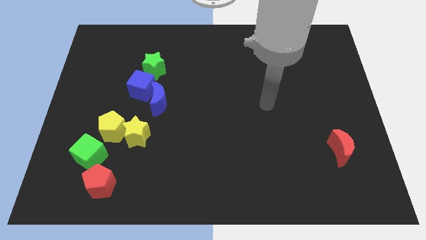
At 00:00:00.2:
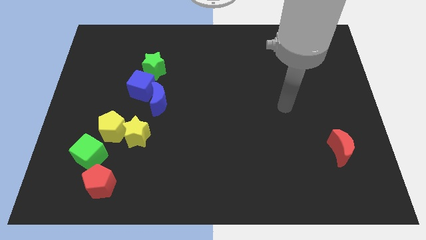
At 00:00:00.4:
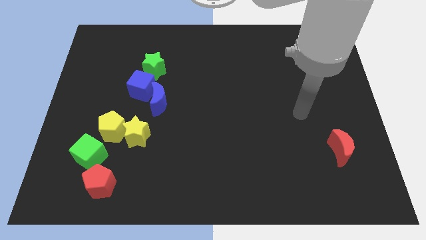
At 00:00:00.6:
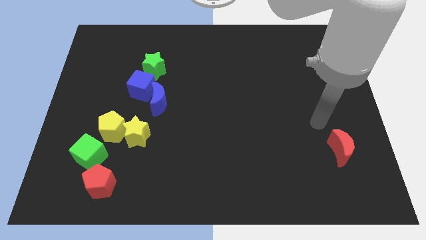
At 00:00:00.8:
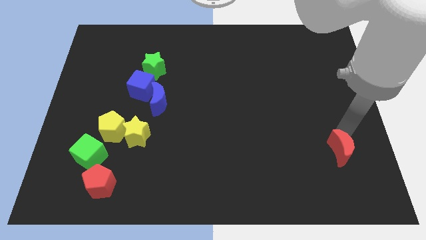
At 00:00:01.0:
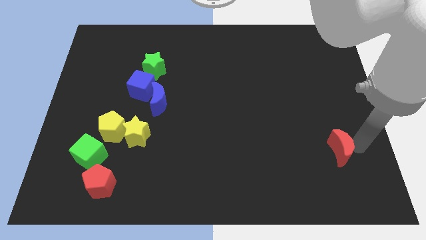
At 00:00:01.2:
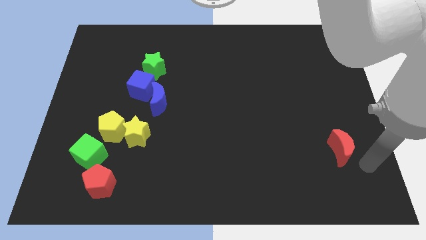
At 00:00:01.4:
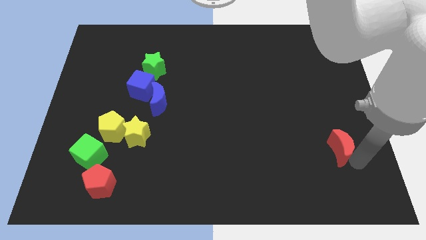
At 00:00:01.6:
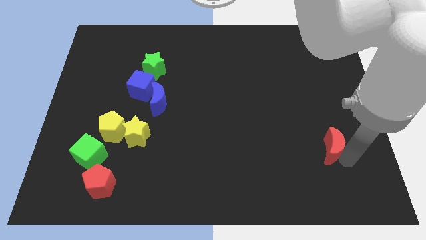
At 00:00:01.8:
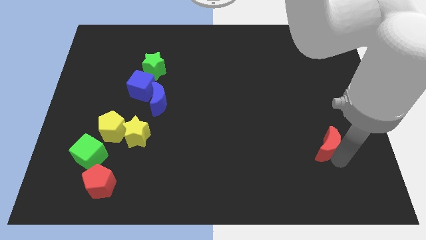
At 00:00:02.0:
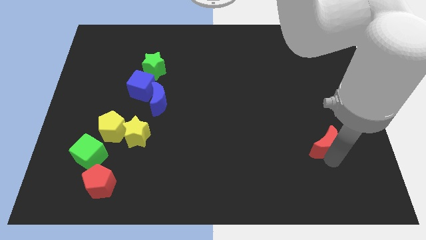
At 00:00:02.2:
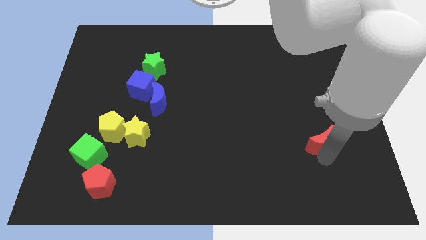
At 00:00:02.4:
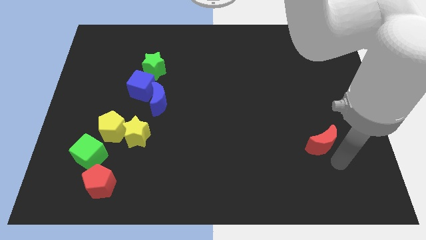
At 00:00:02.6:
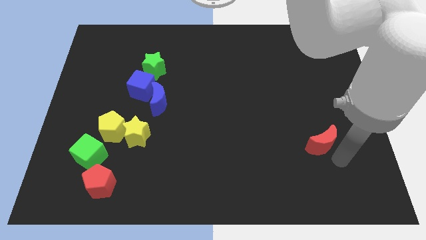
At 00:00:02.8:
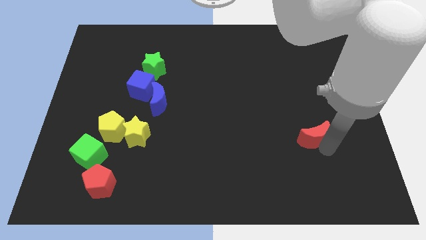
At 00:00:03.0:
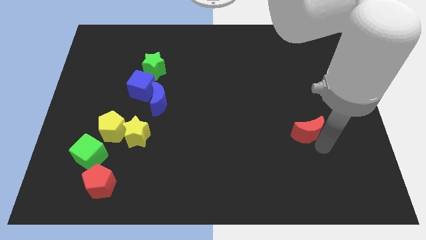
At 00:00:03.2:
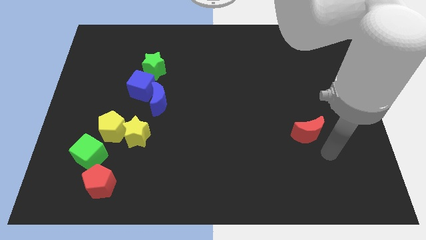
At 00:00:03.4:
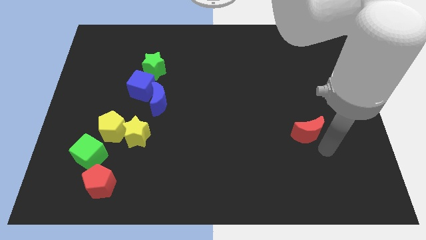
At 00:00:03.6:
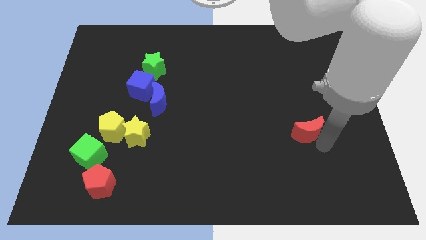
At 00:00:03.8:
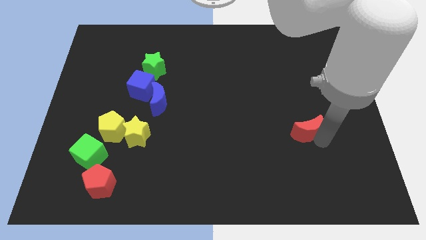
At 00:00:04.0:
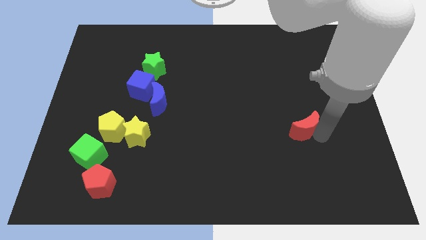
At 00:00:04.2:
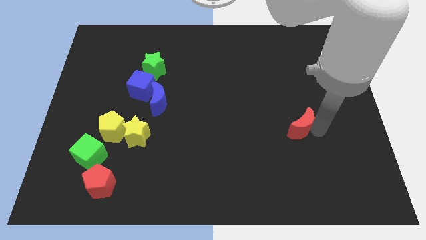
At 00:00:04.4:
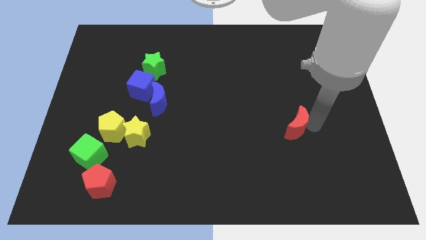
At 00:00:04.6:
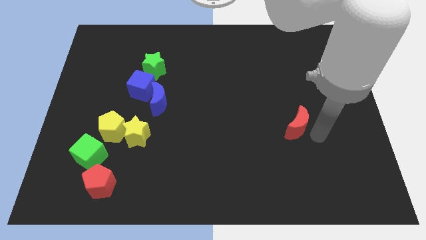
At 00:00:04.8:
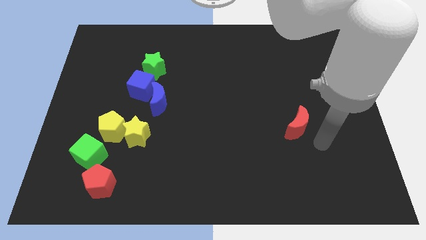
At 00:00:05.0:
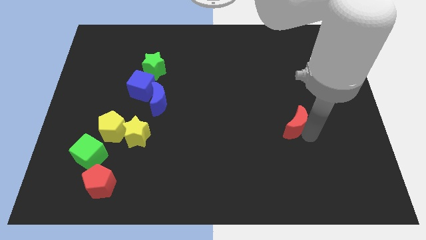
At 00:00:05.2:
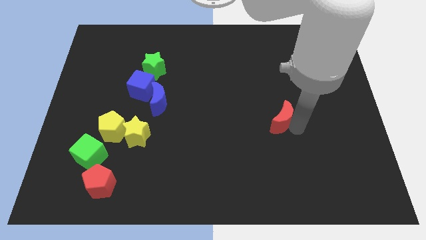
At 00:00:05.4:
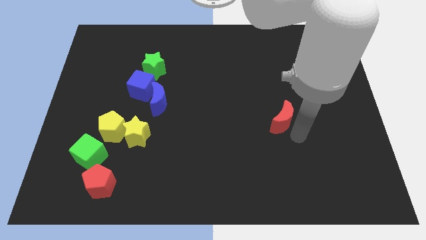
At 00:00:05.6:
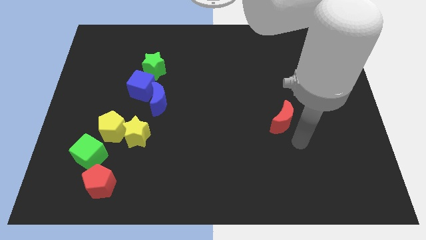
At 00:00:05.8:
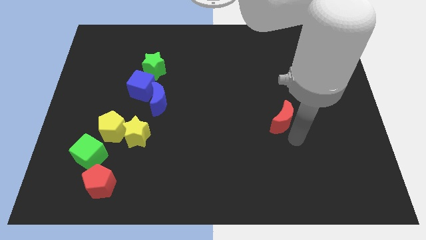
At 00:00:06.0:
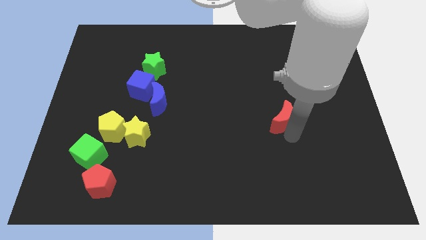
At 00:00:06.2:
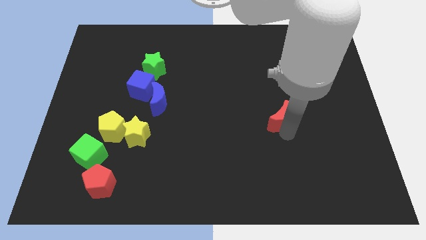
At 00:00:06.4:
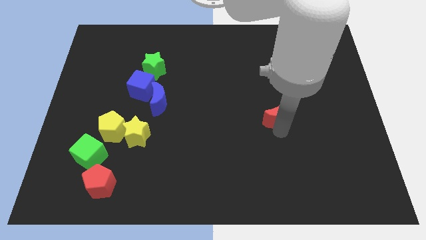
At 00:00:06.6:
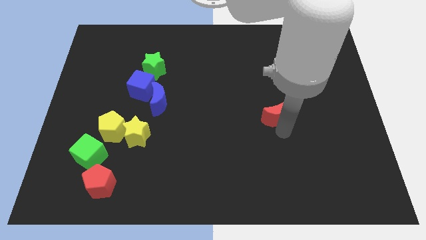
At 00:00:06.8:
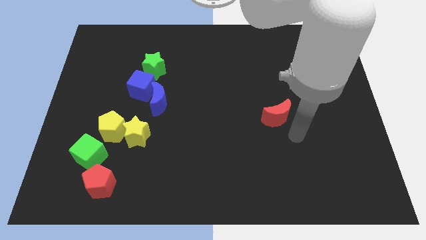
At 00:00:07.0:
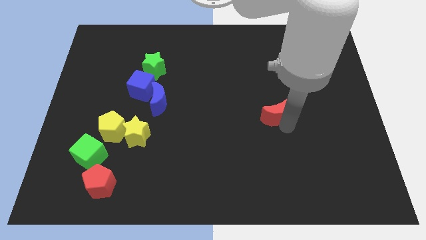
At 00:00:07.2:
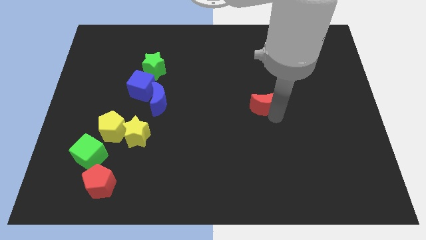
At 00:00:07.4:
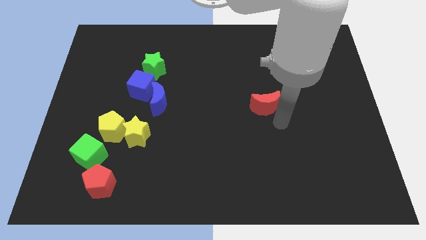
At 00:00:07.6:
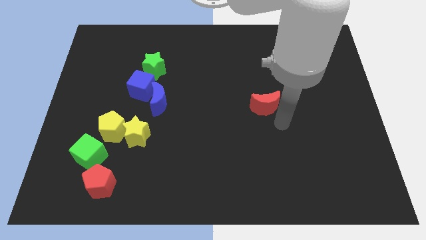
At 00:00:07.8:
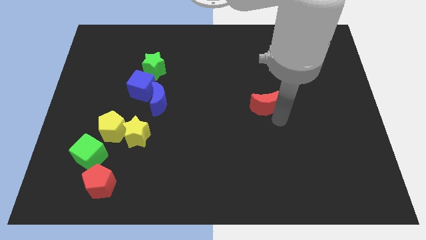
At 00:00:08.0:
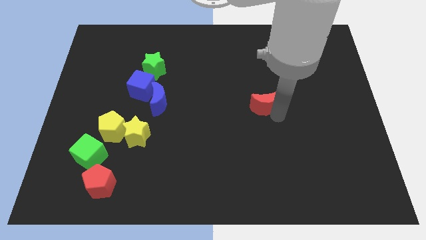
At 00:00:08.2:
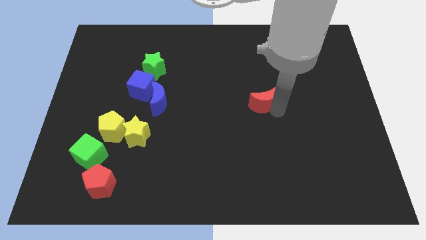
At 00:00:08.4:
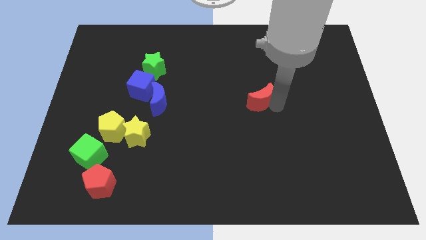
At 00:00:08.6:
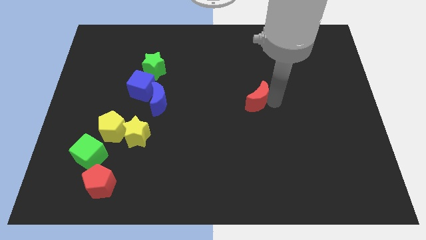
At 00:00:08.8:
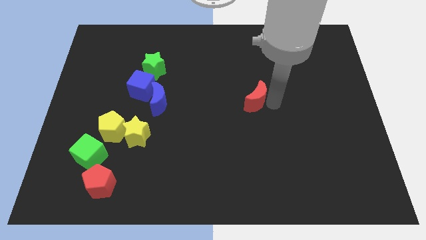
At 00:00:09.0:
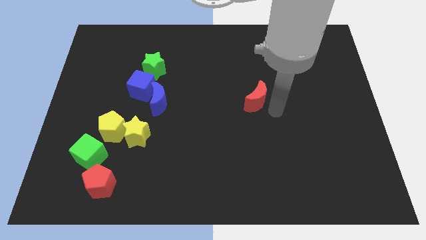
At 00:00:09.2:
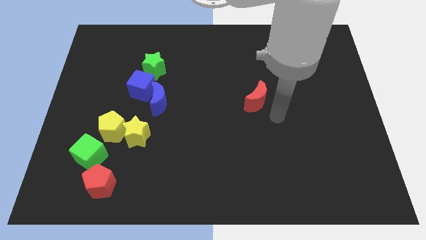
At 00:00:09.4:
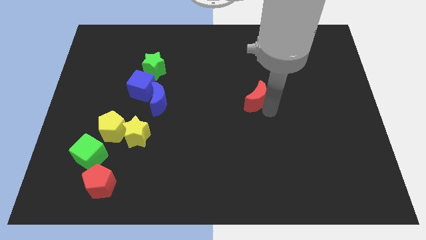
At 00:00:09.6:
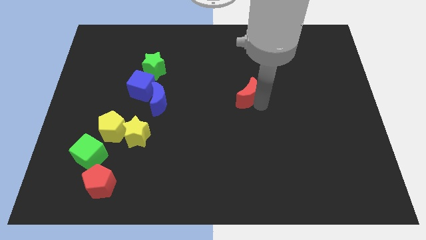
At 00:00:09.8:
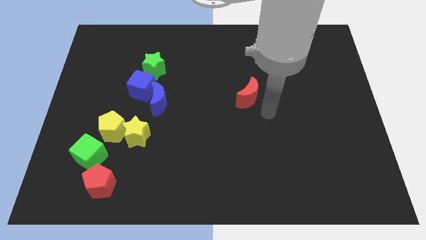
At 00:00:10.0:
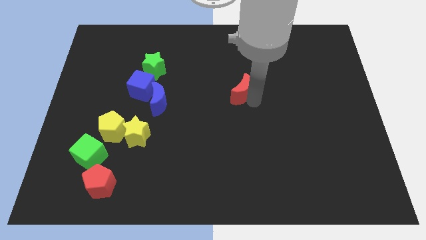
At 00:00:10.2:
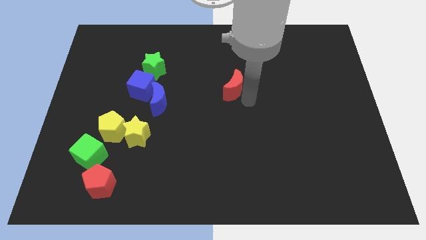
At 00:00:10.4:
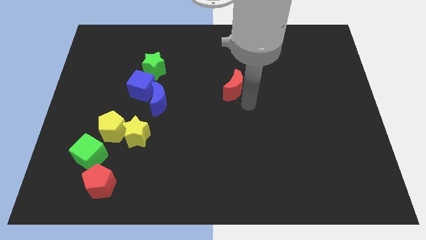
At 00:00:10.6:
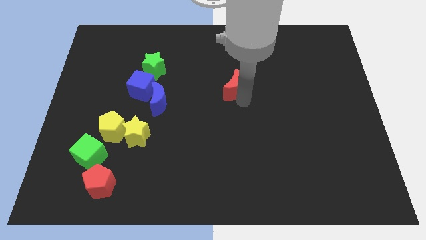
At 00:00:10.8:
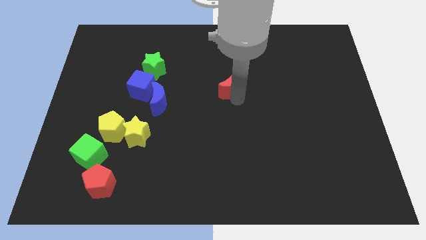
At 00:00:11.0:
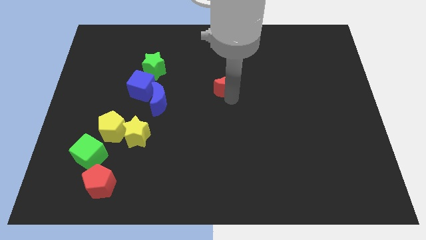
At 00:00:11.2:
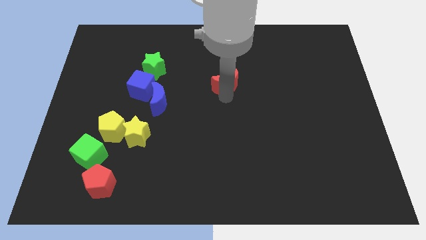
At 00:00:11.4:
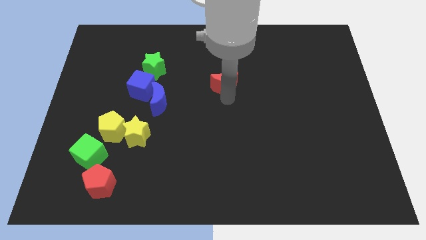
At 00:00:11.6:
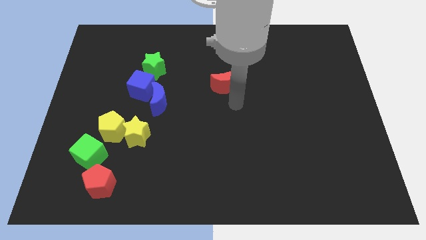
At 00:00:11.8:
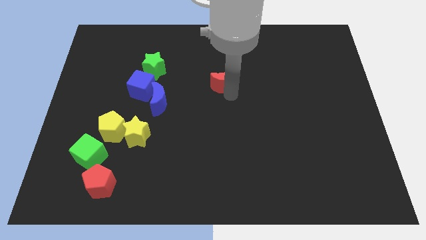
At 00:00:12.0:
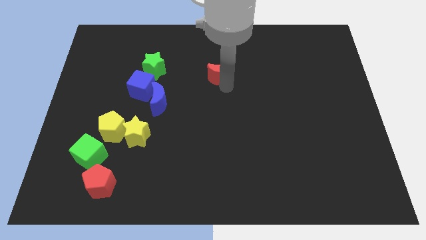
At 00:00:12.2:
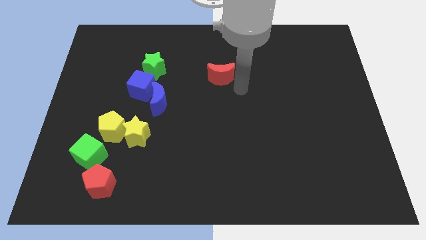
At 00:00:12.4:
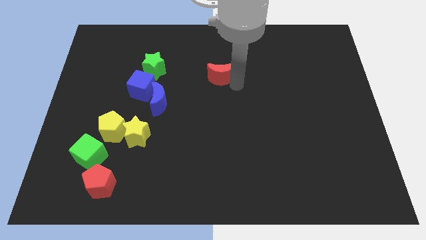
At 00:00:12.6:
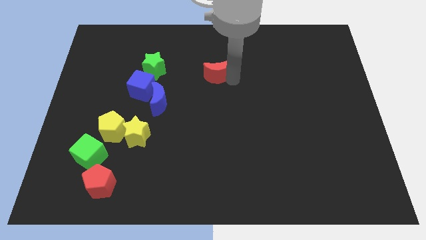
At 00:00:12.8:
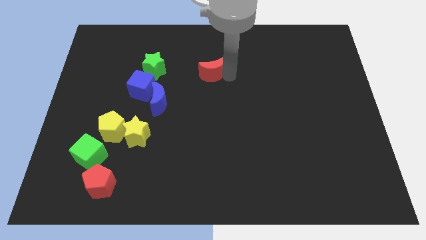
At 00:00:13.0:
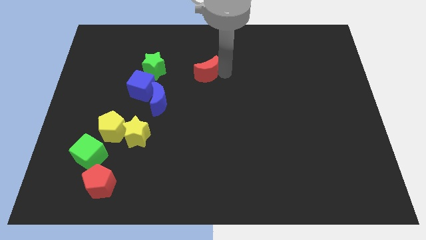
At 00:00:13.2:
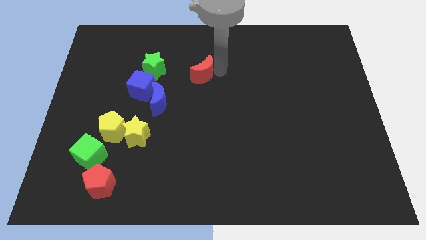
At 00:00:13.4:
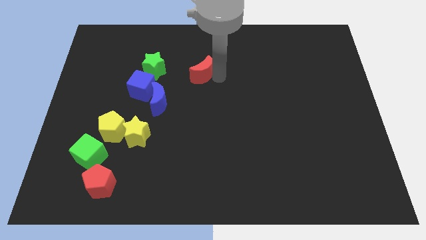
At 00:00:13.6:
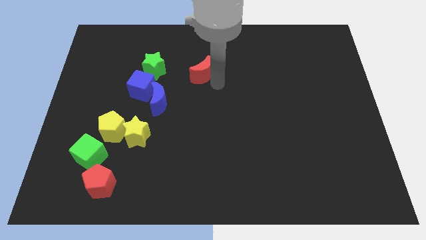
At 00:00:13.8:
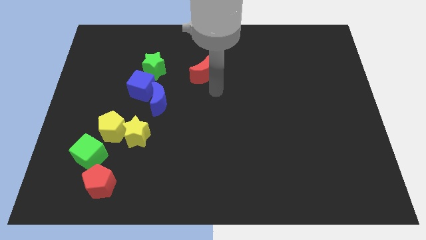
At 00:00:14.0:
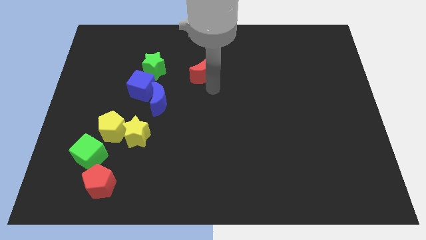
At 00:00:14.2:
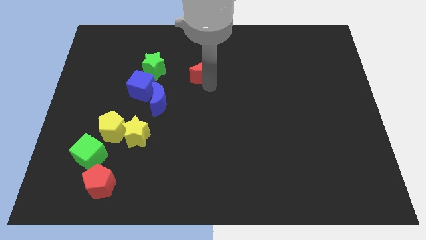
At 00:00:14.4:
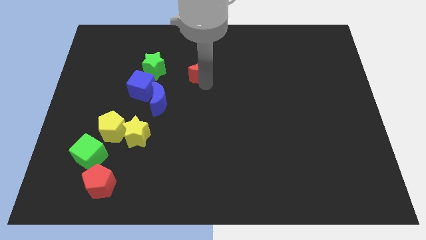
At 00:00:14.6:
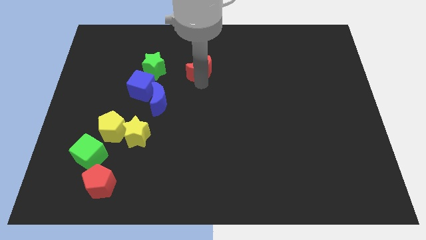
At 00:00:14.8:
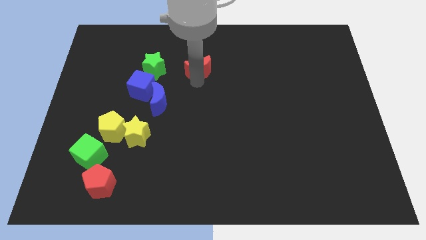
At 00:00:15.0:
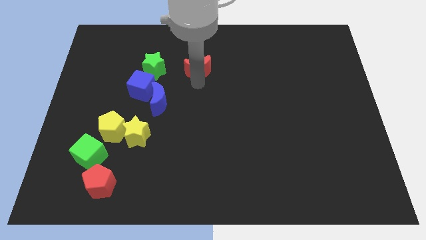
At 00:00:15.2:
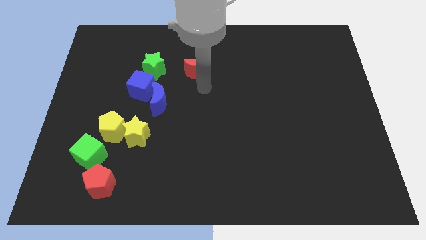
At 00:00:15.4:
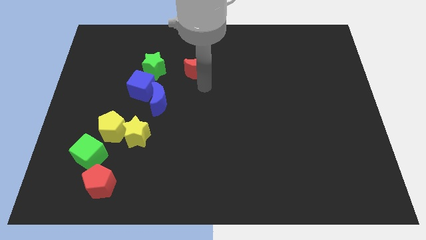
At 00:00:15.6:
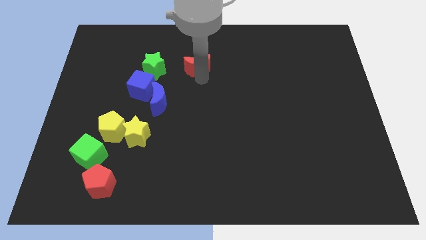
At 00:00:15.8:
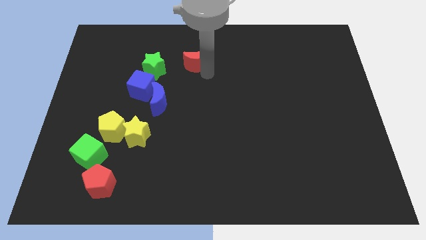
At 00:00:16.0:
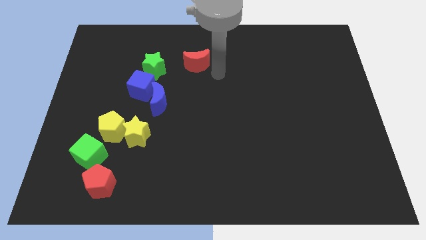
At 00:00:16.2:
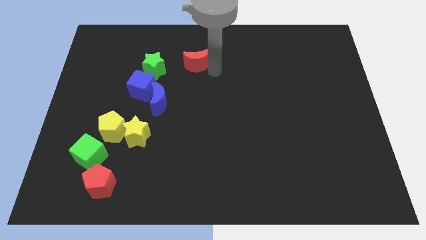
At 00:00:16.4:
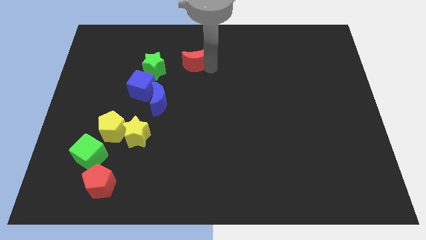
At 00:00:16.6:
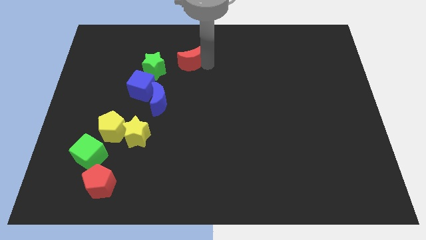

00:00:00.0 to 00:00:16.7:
slide the red moon diagonally up and to the right of the green star
